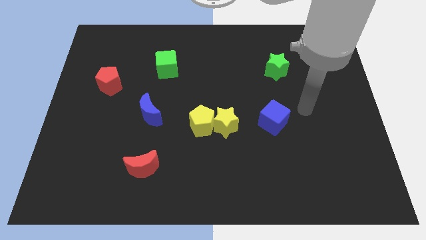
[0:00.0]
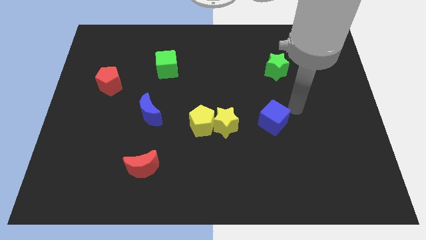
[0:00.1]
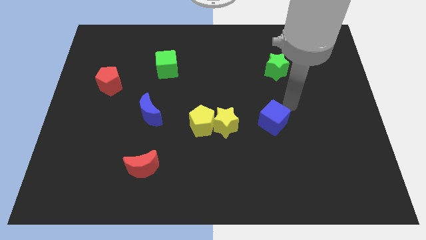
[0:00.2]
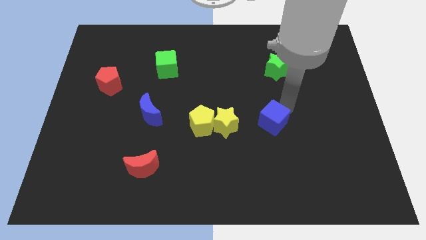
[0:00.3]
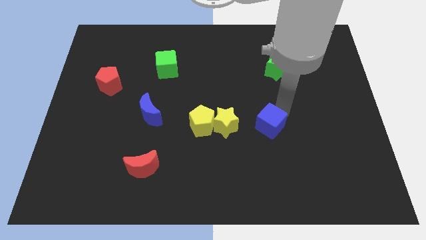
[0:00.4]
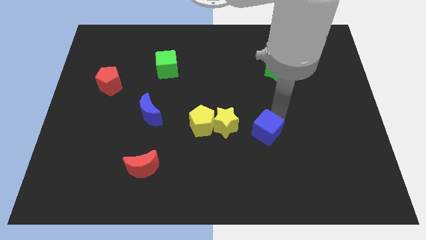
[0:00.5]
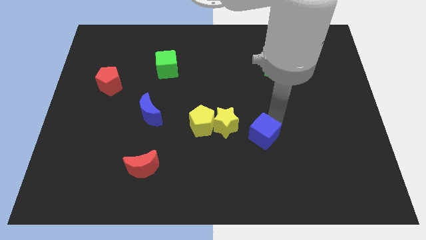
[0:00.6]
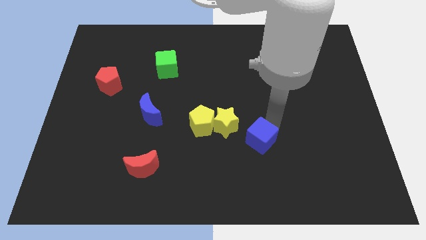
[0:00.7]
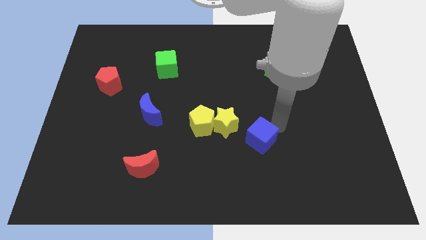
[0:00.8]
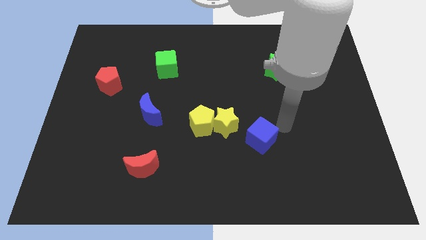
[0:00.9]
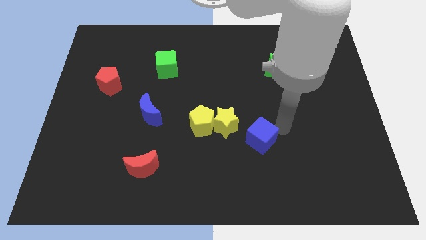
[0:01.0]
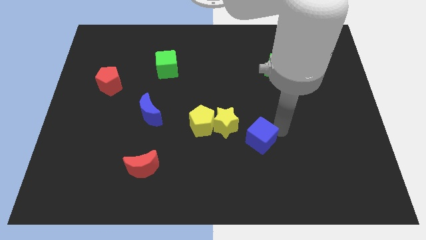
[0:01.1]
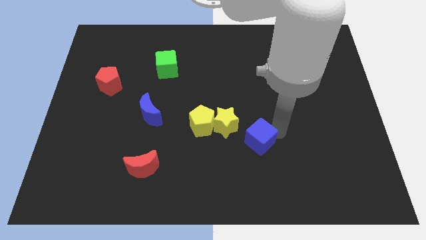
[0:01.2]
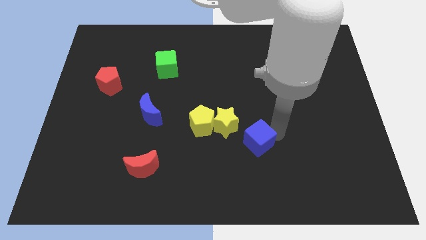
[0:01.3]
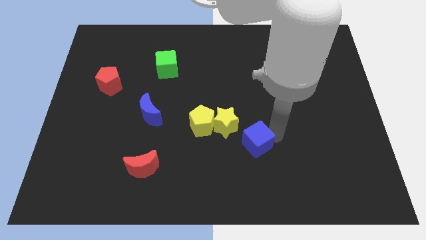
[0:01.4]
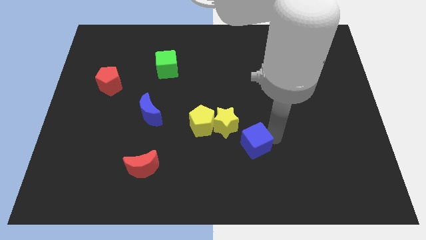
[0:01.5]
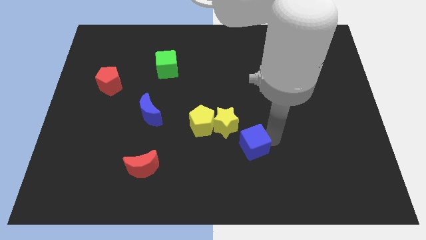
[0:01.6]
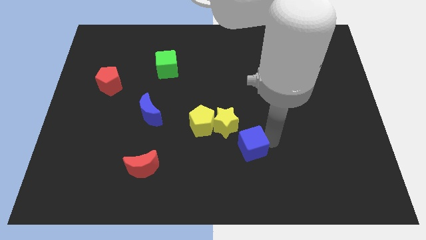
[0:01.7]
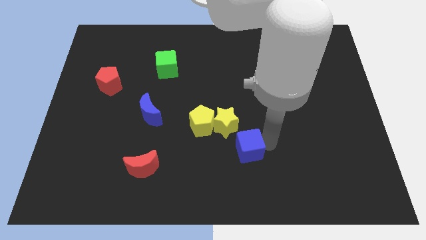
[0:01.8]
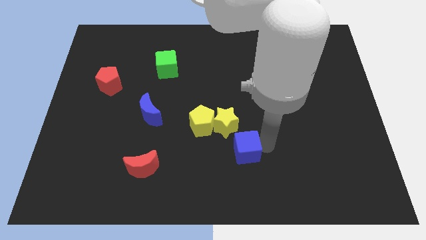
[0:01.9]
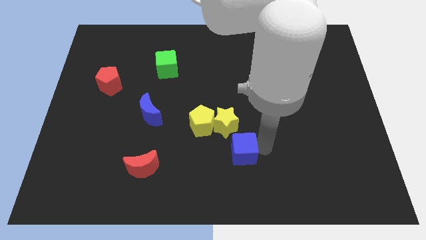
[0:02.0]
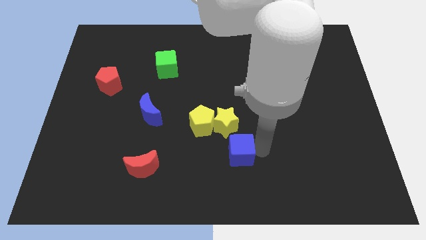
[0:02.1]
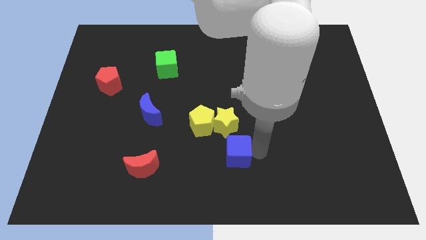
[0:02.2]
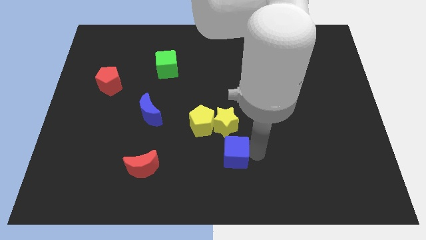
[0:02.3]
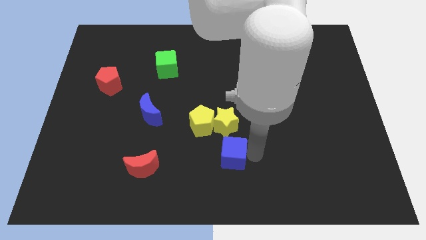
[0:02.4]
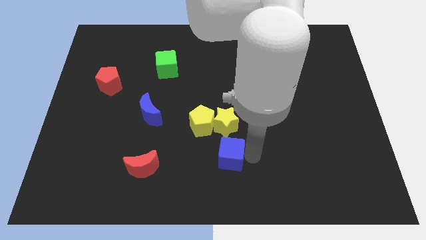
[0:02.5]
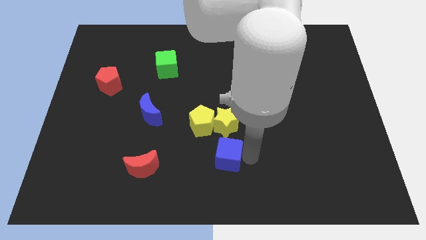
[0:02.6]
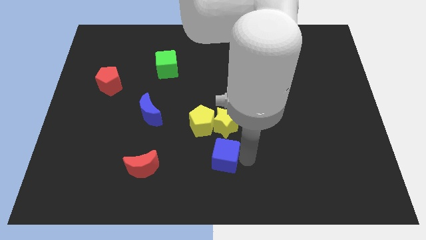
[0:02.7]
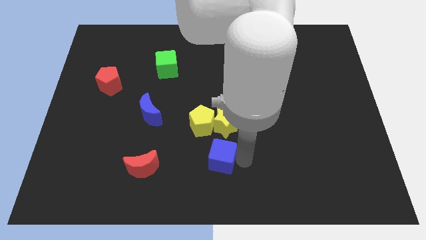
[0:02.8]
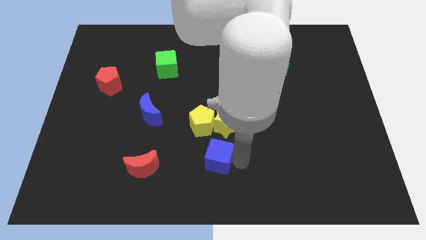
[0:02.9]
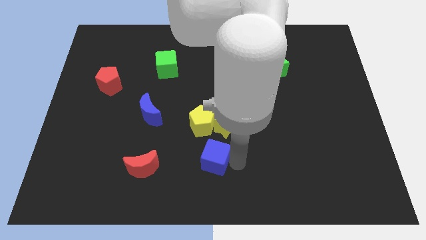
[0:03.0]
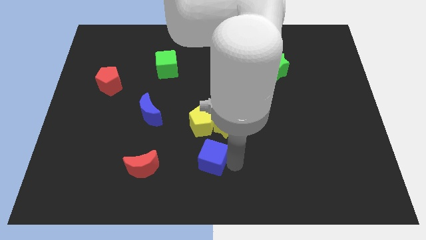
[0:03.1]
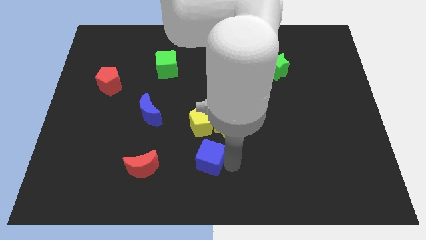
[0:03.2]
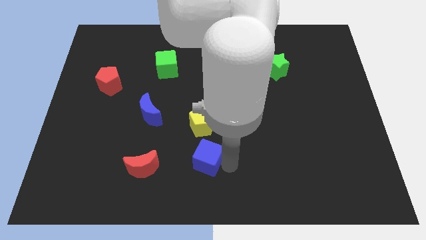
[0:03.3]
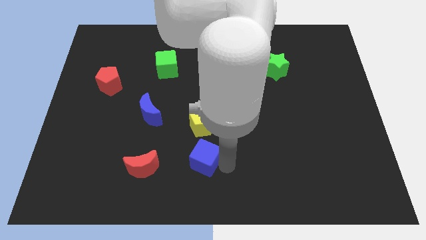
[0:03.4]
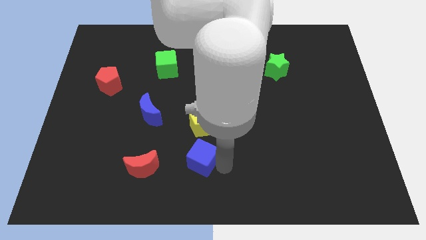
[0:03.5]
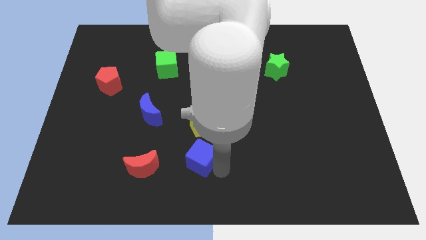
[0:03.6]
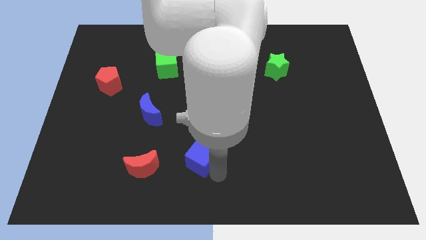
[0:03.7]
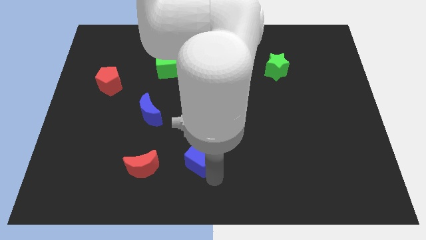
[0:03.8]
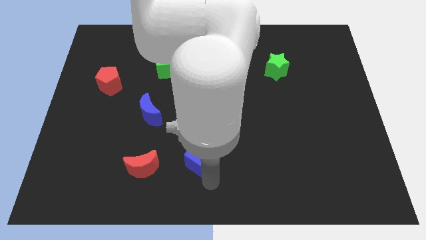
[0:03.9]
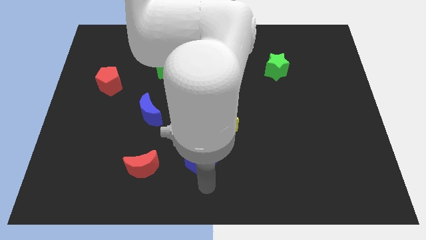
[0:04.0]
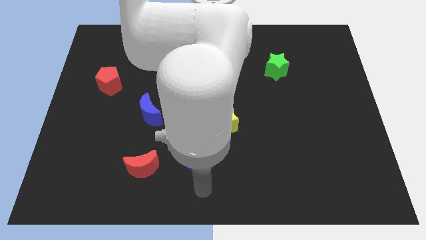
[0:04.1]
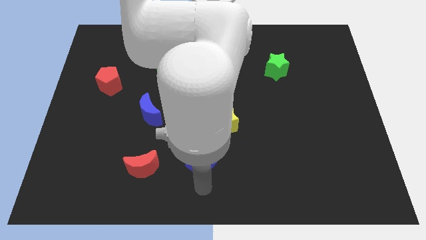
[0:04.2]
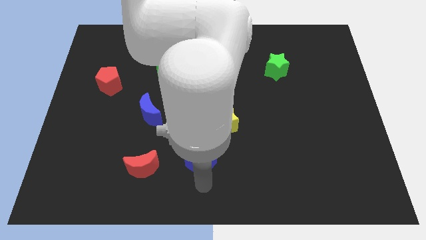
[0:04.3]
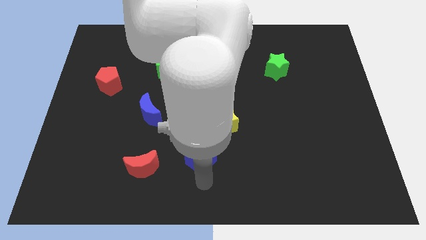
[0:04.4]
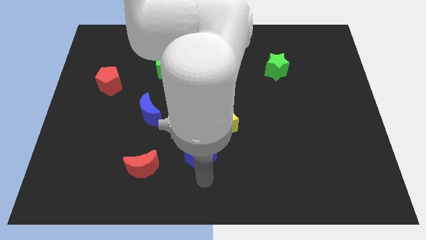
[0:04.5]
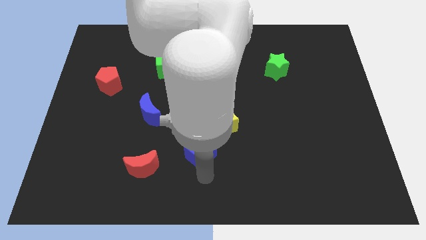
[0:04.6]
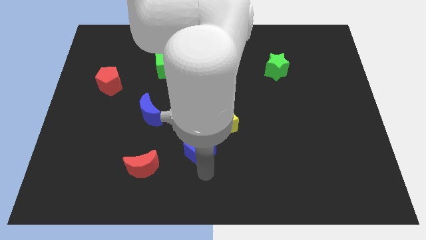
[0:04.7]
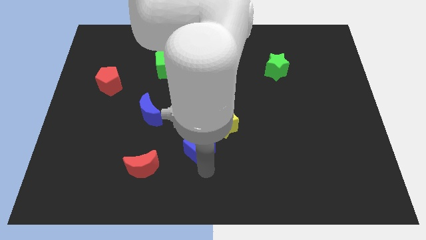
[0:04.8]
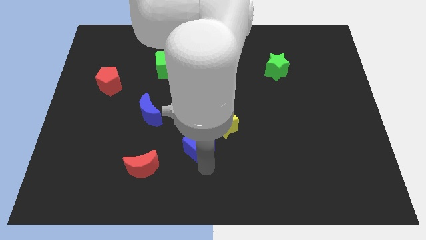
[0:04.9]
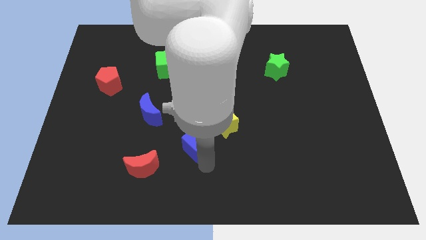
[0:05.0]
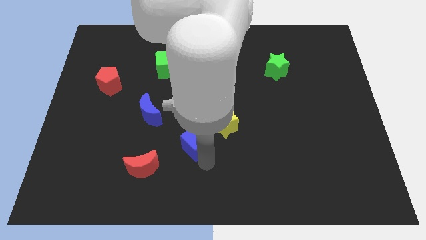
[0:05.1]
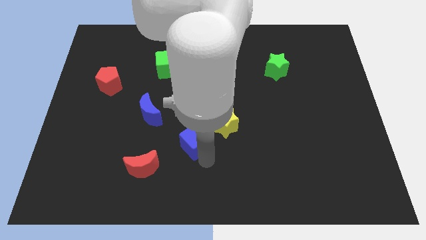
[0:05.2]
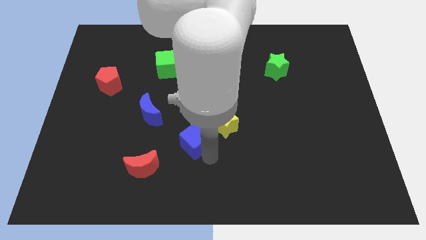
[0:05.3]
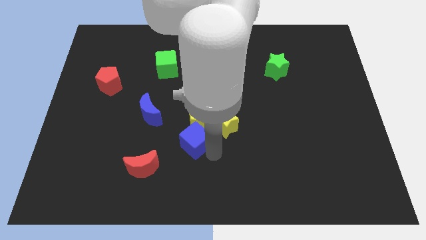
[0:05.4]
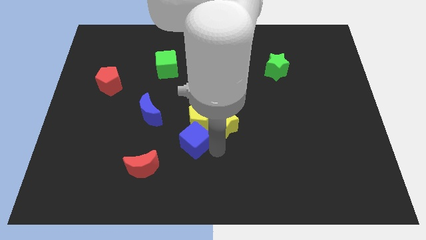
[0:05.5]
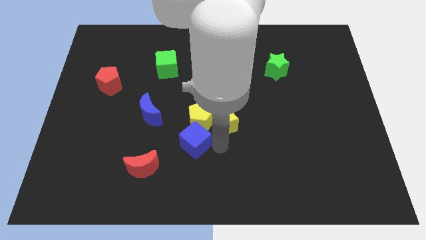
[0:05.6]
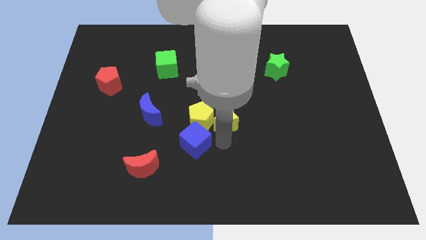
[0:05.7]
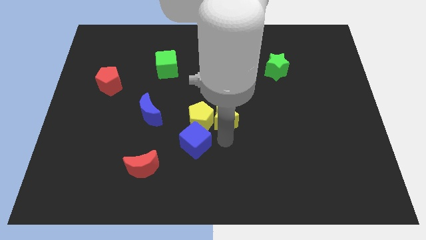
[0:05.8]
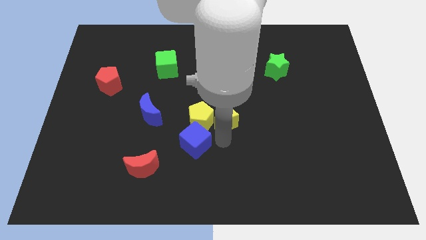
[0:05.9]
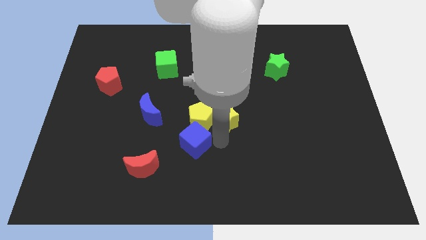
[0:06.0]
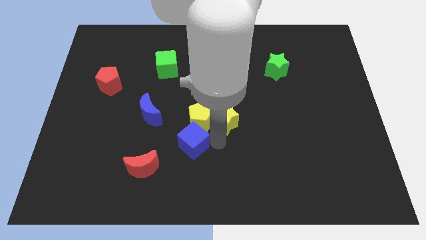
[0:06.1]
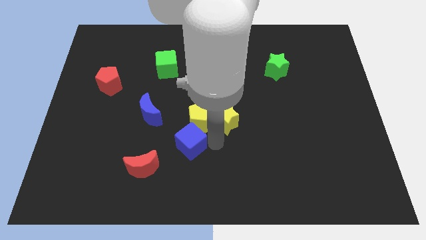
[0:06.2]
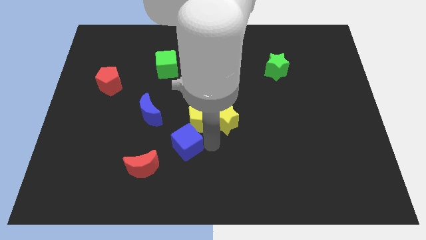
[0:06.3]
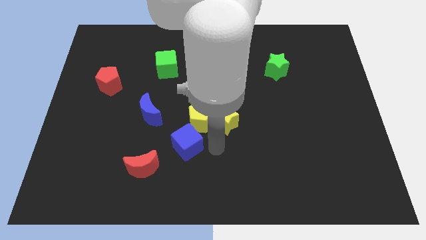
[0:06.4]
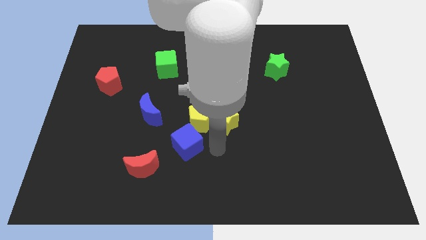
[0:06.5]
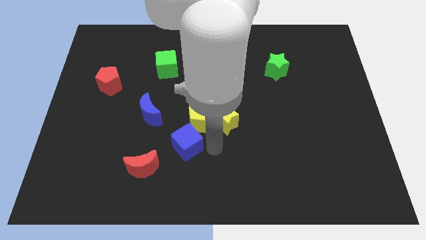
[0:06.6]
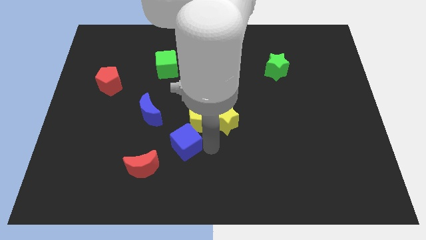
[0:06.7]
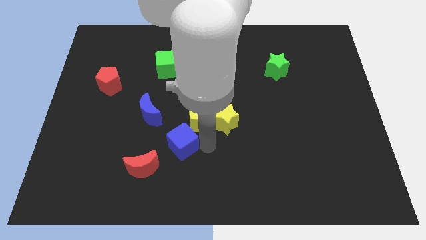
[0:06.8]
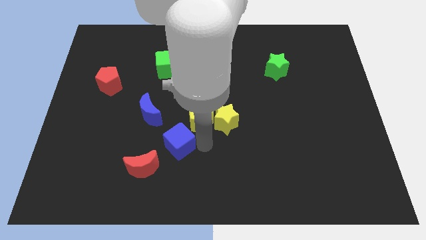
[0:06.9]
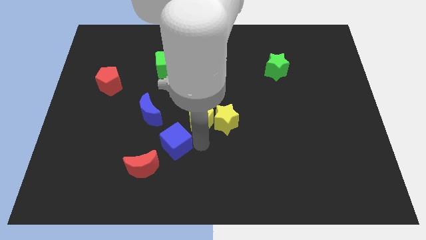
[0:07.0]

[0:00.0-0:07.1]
push the blue cube left

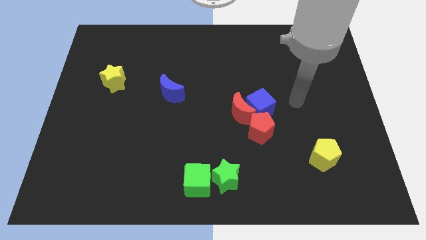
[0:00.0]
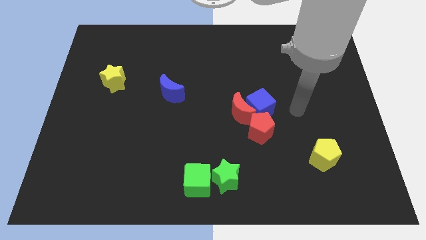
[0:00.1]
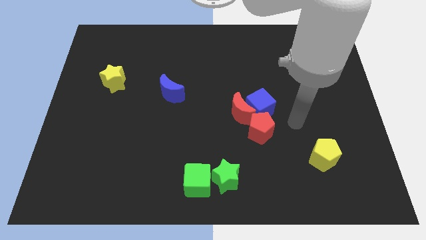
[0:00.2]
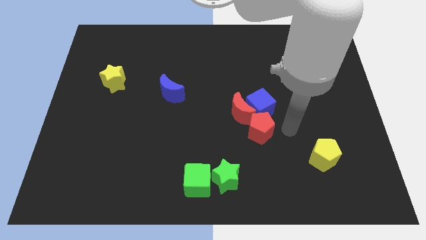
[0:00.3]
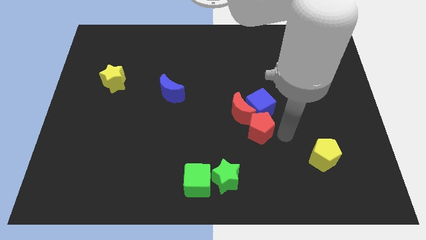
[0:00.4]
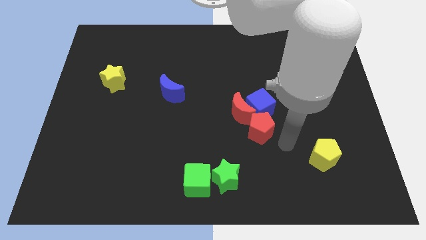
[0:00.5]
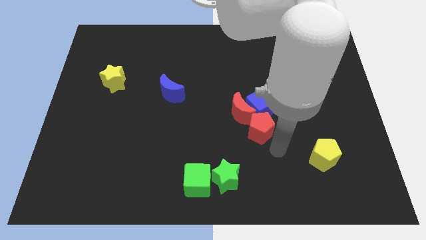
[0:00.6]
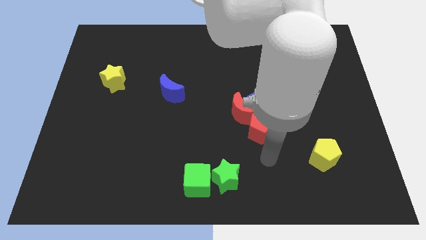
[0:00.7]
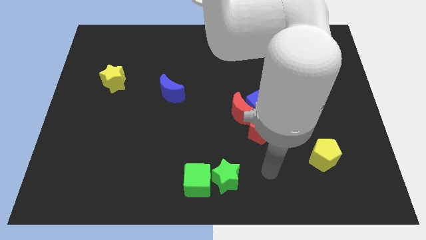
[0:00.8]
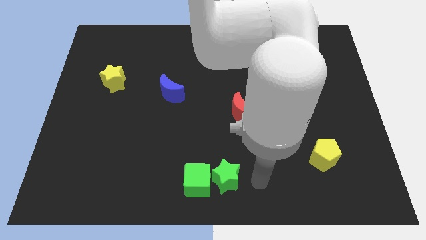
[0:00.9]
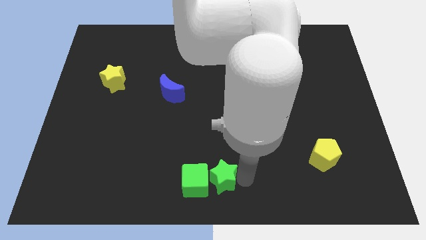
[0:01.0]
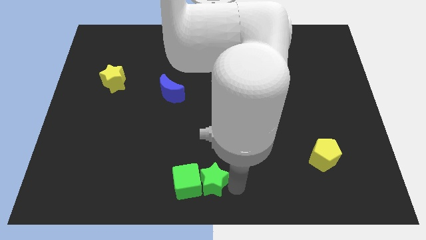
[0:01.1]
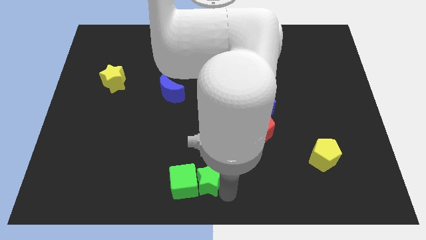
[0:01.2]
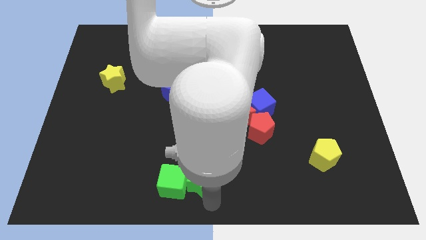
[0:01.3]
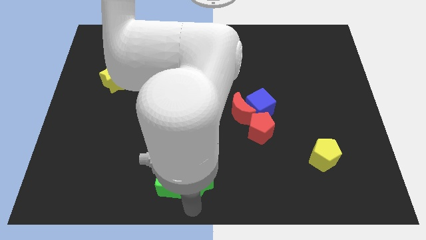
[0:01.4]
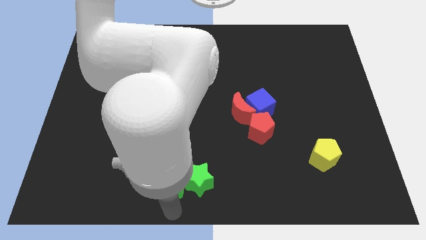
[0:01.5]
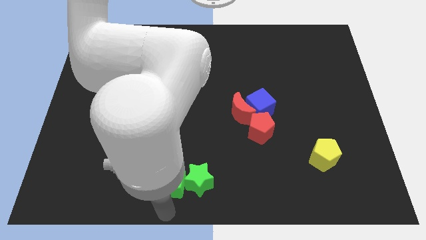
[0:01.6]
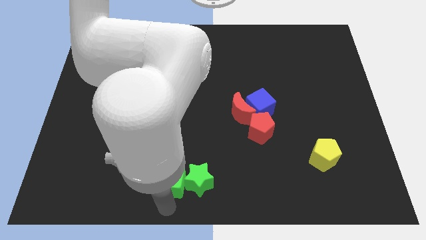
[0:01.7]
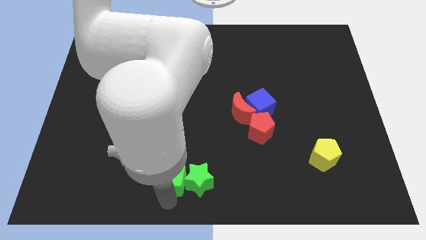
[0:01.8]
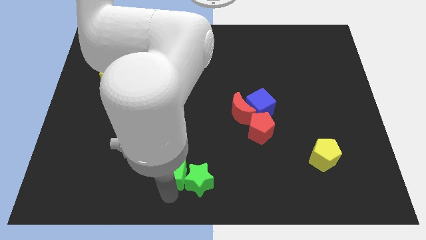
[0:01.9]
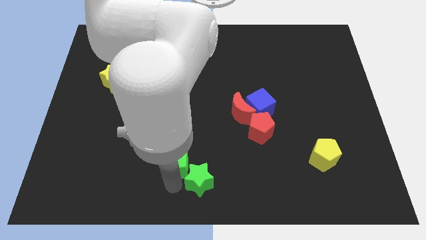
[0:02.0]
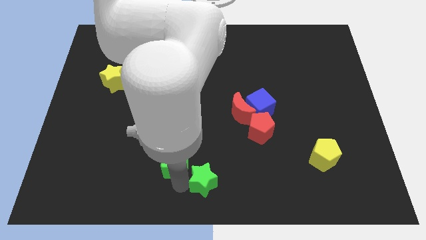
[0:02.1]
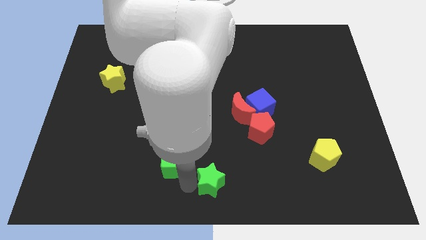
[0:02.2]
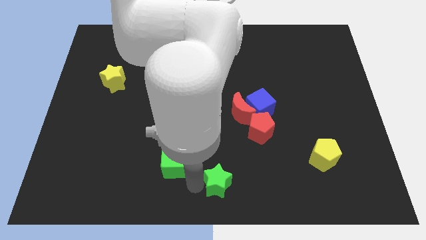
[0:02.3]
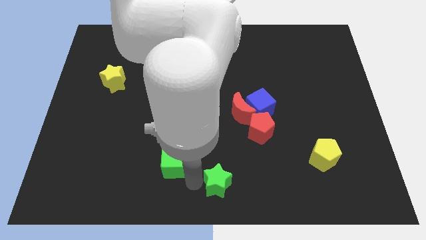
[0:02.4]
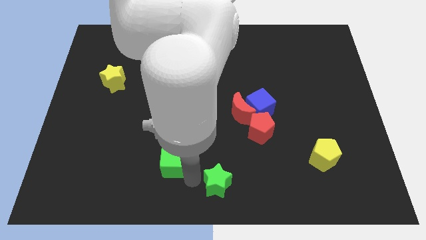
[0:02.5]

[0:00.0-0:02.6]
slightly slide the green cube upwards and left diagonally
